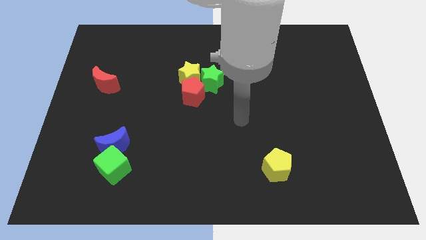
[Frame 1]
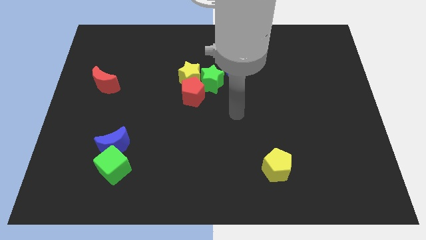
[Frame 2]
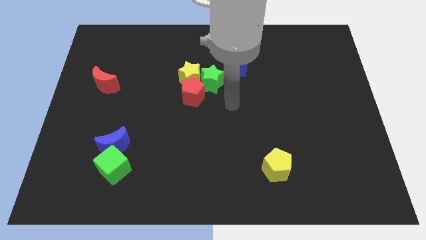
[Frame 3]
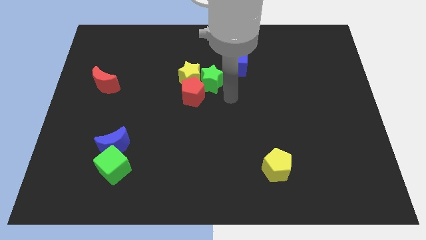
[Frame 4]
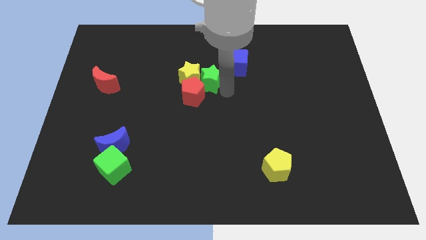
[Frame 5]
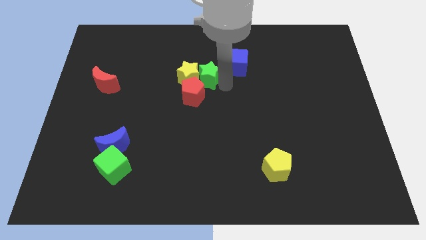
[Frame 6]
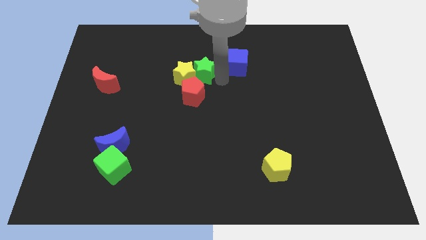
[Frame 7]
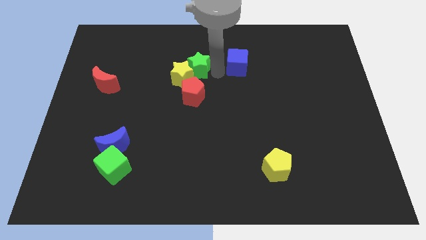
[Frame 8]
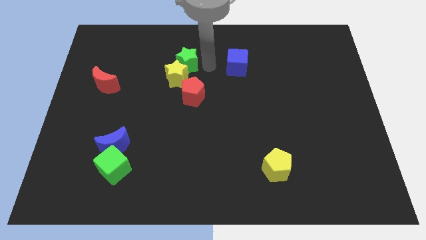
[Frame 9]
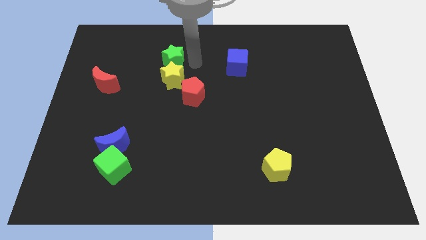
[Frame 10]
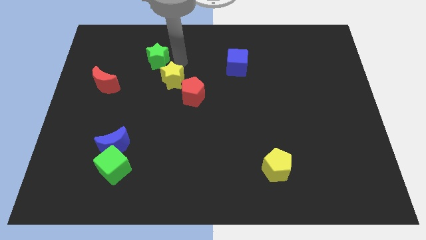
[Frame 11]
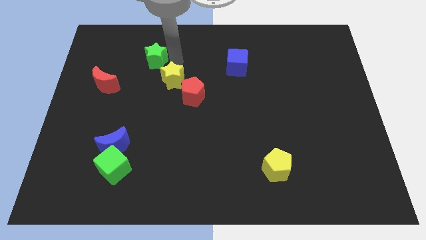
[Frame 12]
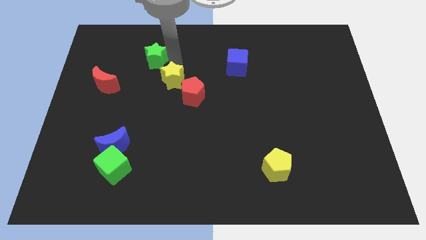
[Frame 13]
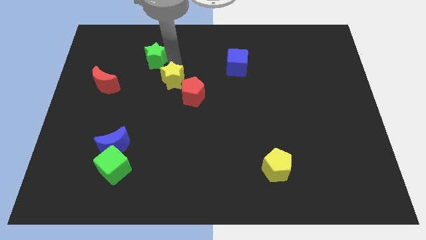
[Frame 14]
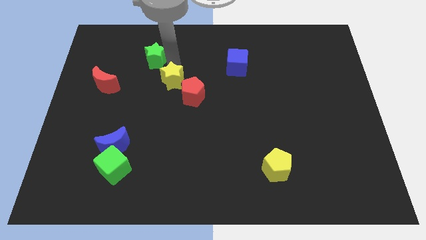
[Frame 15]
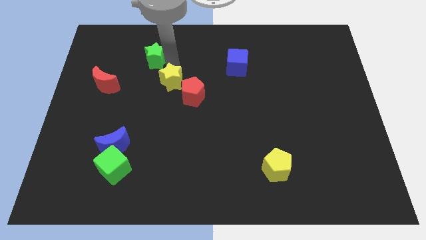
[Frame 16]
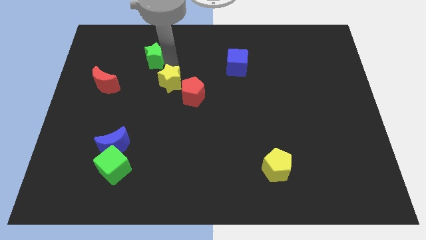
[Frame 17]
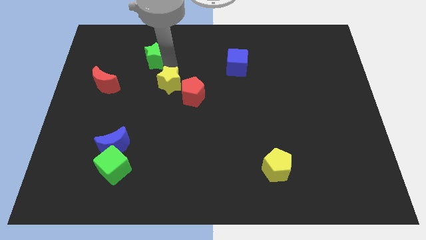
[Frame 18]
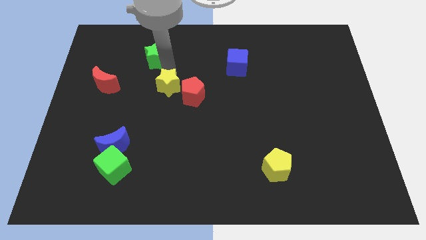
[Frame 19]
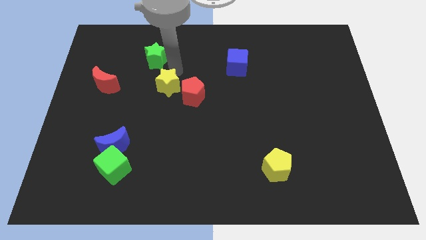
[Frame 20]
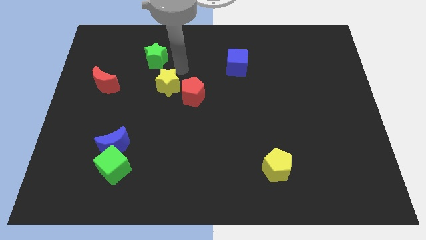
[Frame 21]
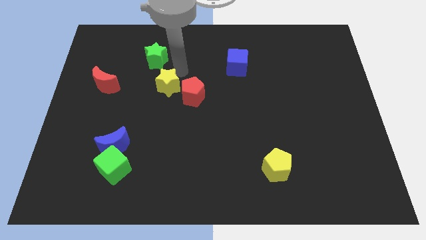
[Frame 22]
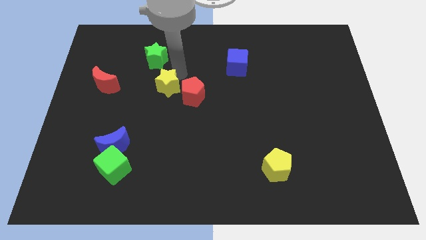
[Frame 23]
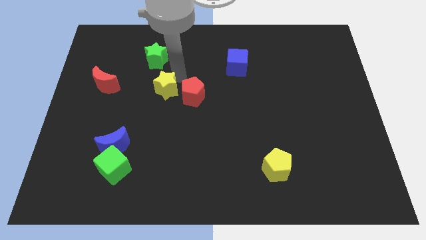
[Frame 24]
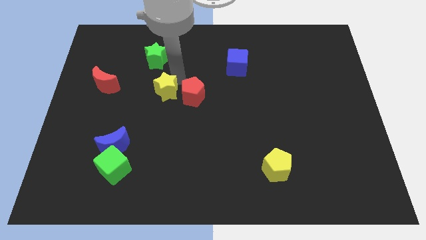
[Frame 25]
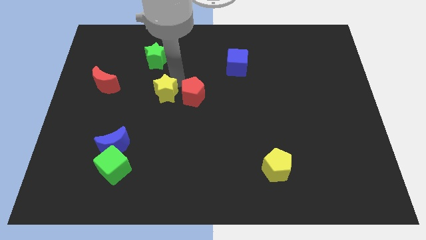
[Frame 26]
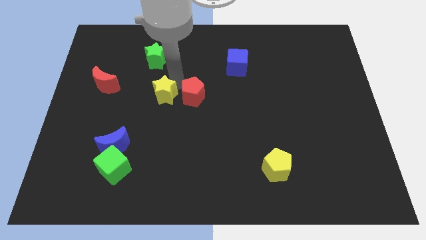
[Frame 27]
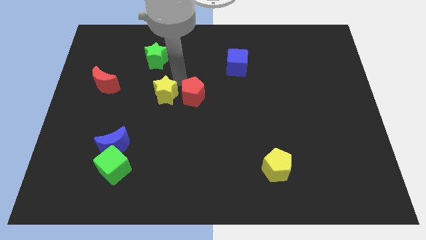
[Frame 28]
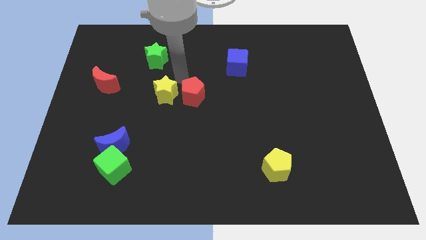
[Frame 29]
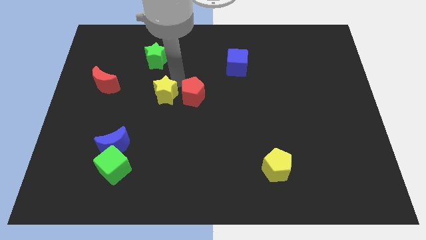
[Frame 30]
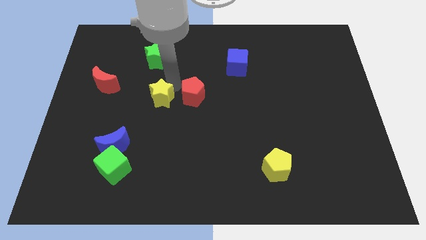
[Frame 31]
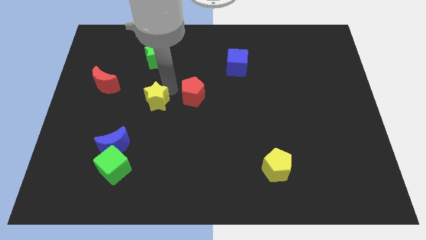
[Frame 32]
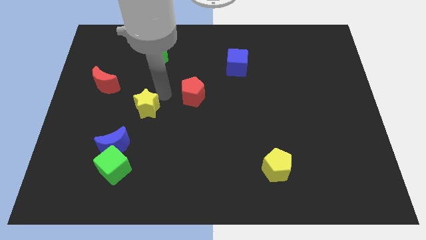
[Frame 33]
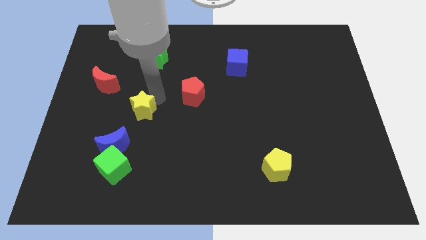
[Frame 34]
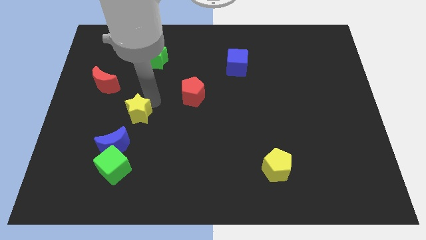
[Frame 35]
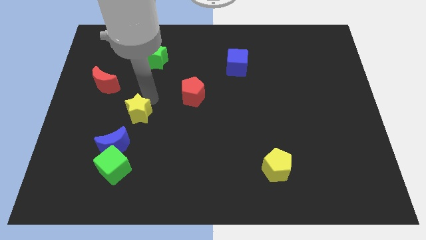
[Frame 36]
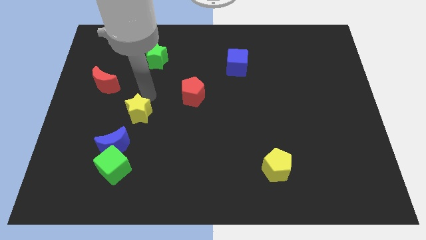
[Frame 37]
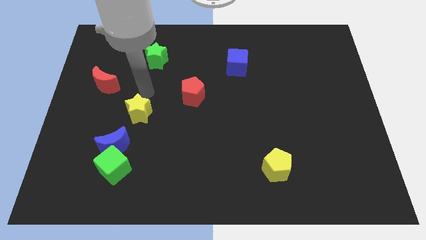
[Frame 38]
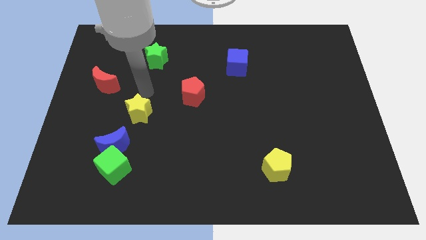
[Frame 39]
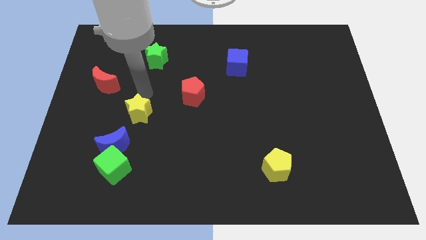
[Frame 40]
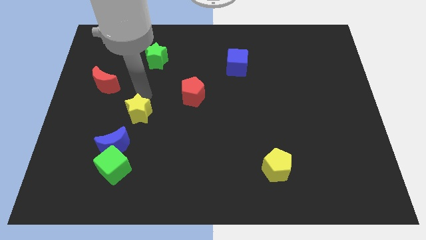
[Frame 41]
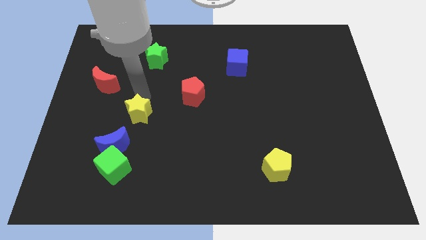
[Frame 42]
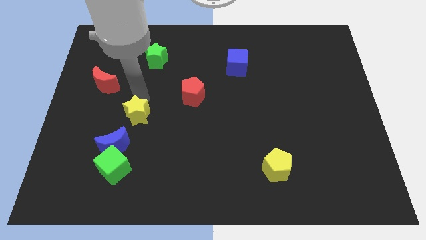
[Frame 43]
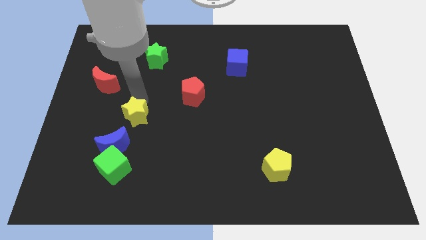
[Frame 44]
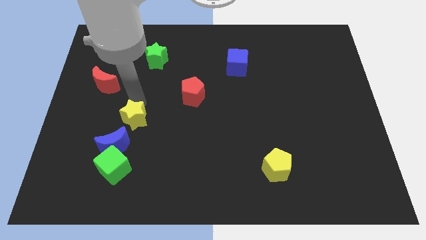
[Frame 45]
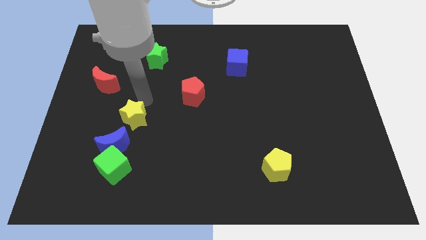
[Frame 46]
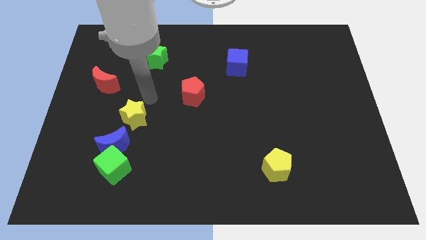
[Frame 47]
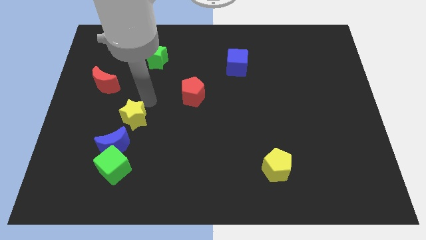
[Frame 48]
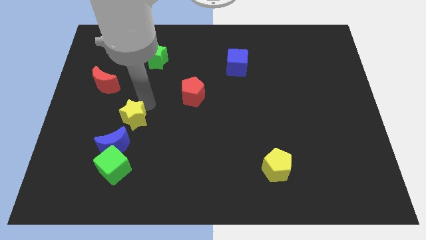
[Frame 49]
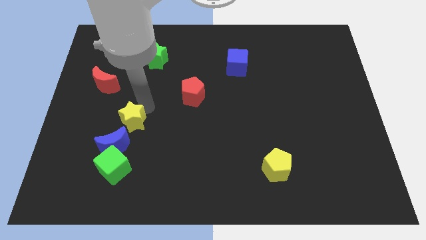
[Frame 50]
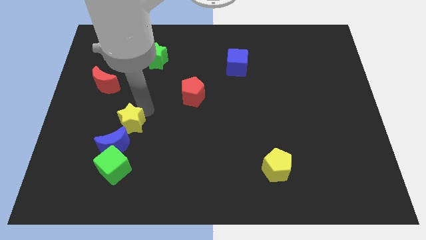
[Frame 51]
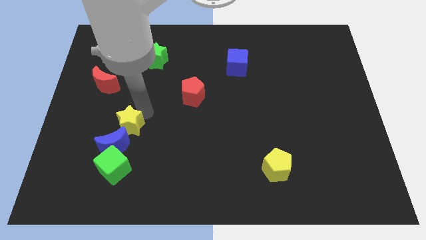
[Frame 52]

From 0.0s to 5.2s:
slide the yellow star next to the blue moon

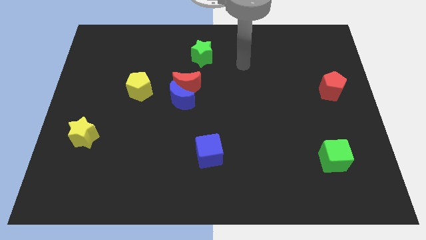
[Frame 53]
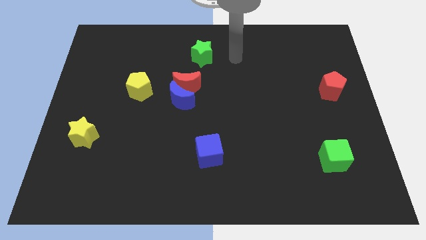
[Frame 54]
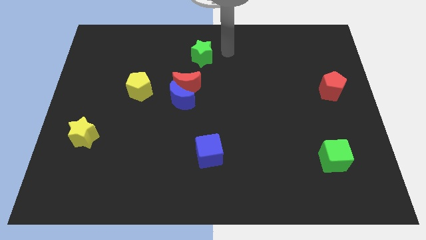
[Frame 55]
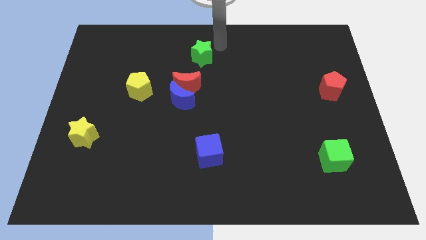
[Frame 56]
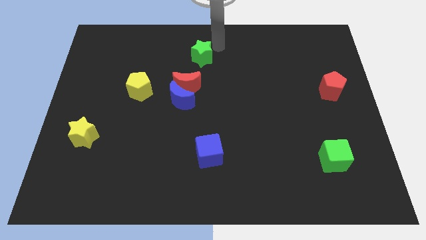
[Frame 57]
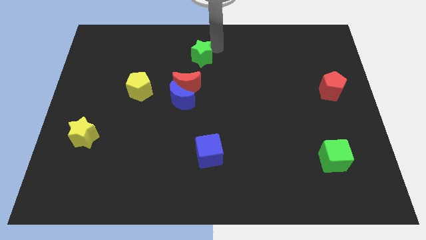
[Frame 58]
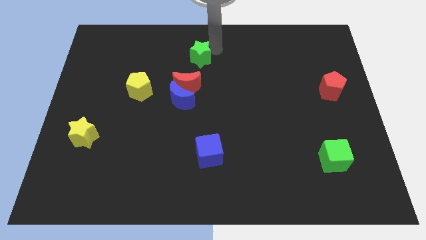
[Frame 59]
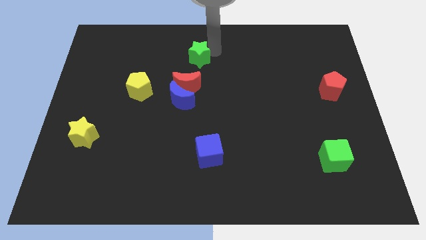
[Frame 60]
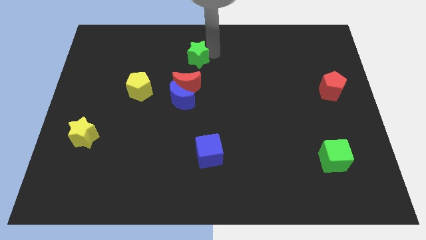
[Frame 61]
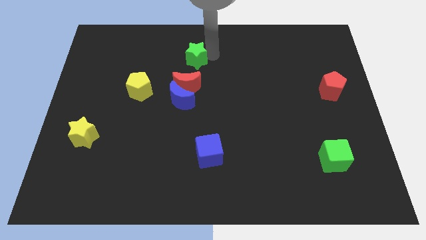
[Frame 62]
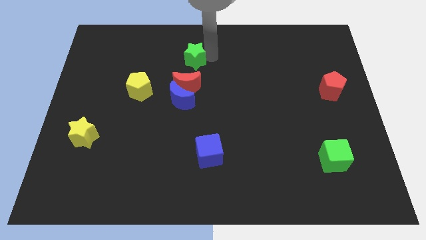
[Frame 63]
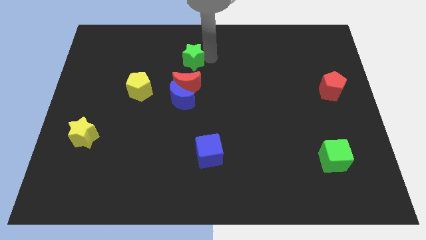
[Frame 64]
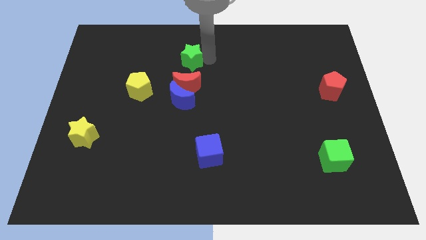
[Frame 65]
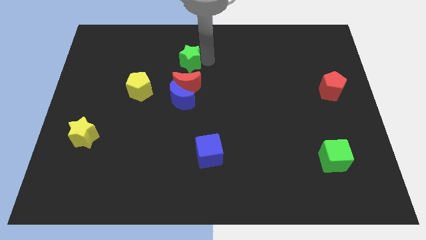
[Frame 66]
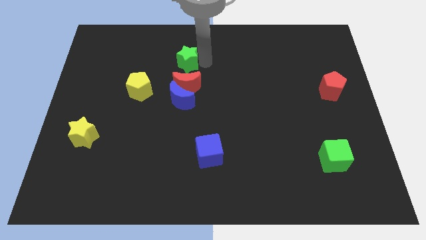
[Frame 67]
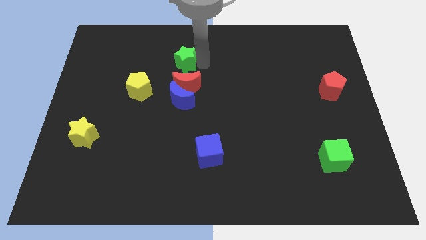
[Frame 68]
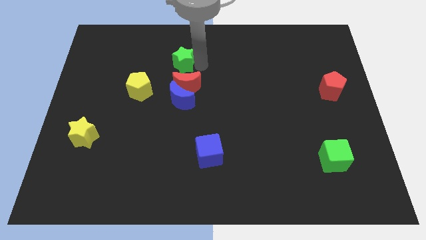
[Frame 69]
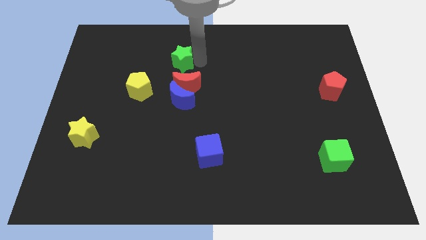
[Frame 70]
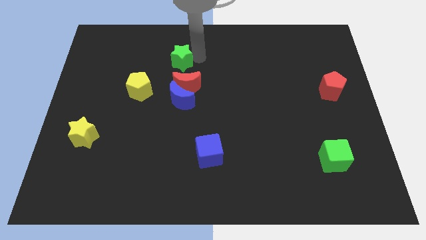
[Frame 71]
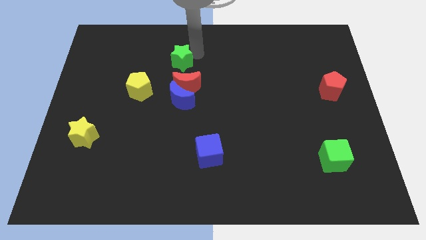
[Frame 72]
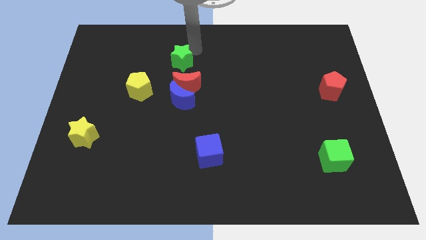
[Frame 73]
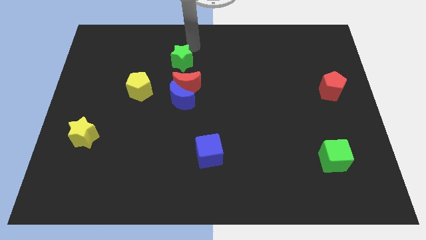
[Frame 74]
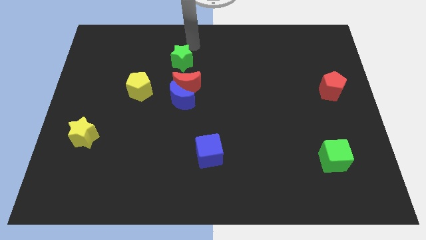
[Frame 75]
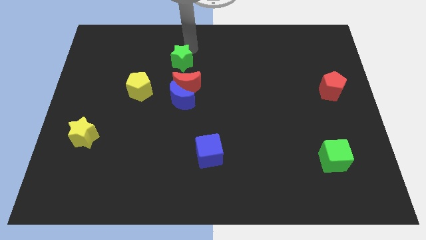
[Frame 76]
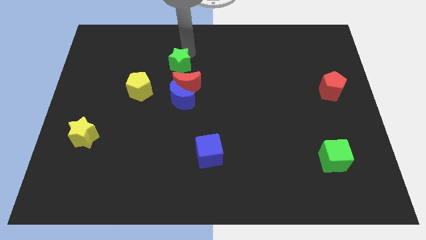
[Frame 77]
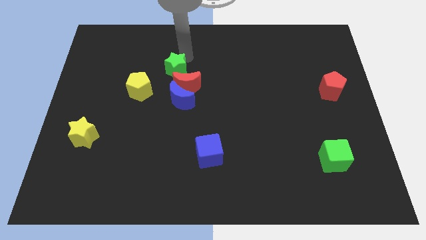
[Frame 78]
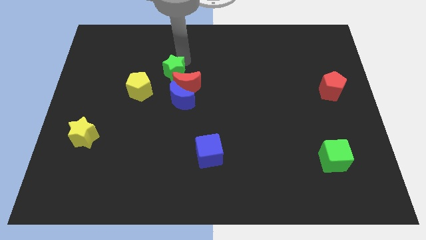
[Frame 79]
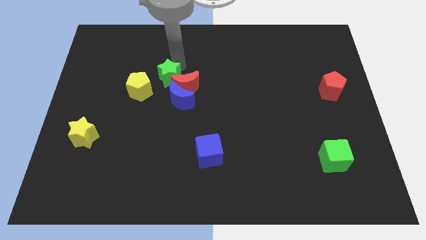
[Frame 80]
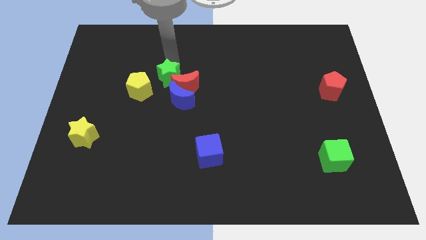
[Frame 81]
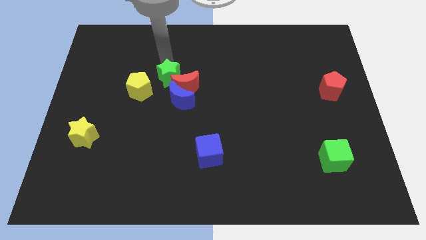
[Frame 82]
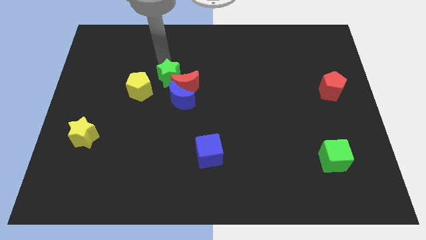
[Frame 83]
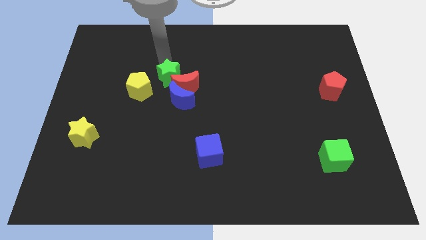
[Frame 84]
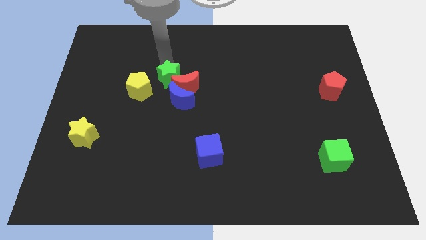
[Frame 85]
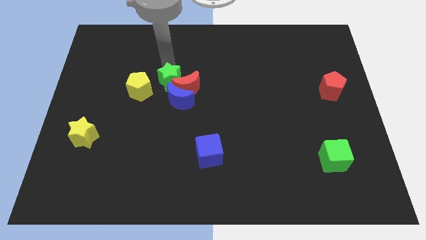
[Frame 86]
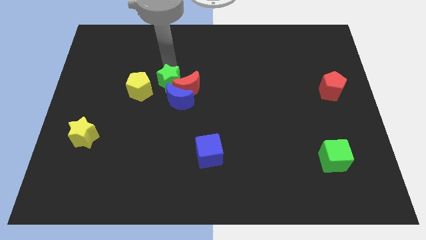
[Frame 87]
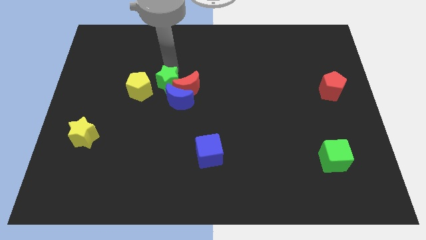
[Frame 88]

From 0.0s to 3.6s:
move the green star close to the blue moon
